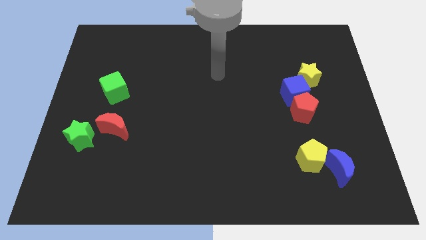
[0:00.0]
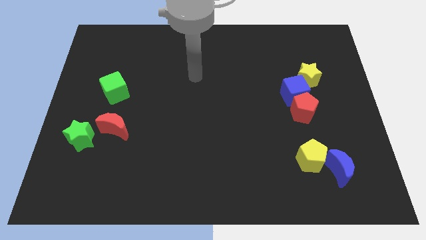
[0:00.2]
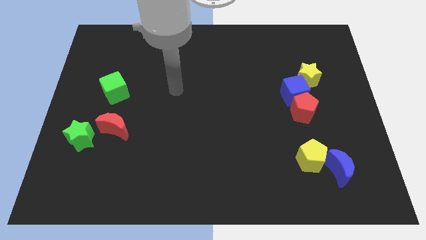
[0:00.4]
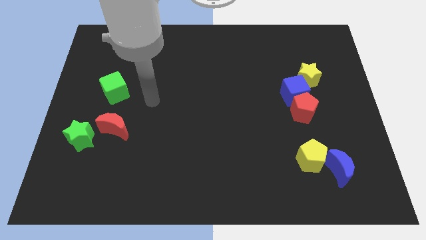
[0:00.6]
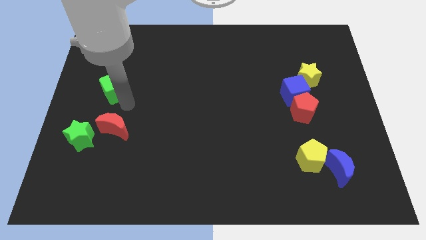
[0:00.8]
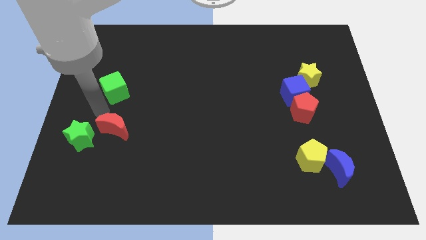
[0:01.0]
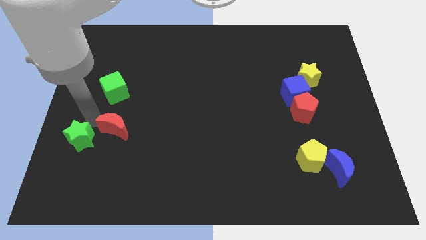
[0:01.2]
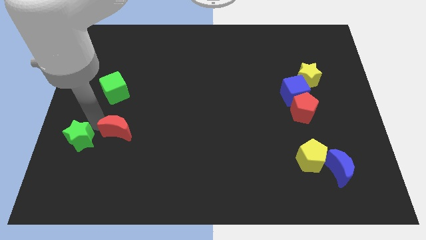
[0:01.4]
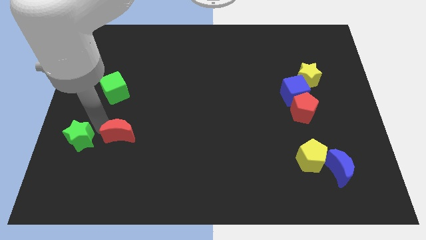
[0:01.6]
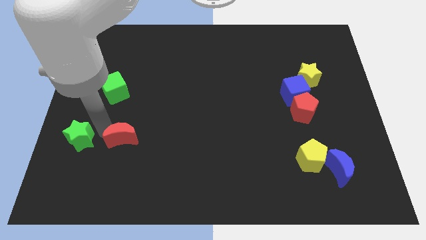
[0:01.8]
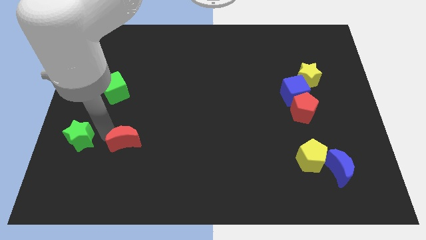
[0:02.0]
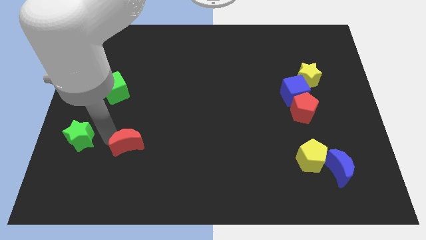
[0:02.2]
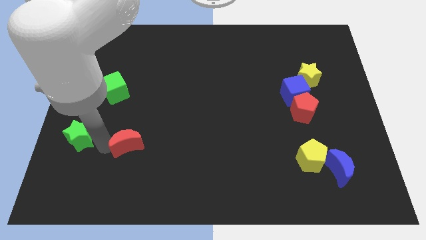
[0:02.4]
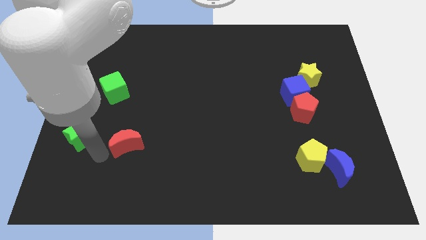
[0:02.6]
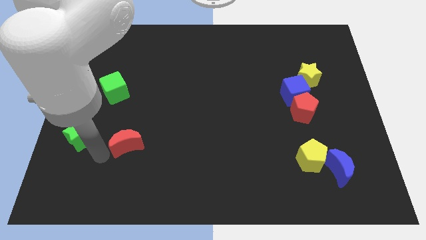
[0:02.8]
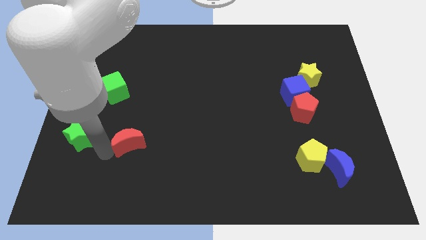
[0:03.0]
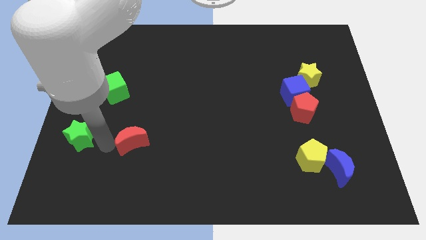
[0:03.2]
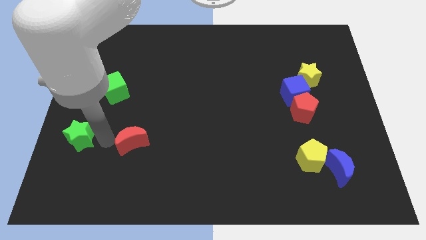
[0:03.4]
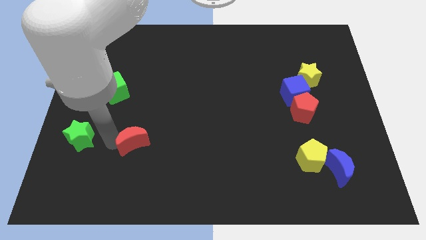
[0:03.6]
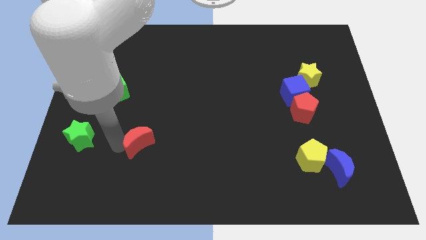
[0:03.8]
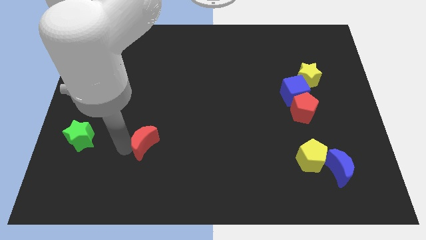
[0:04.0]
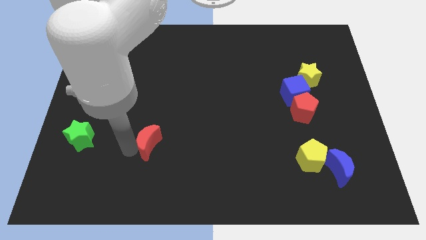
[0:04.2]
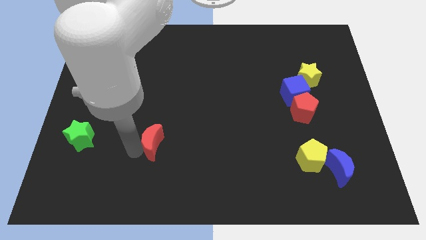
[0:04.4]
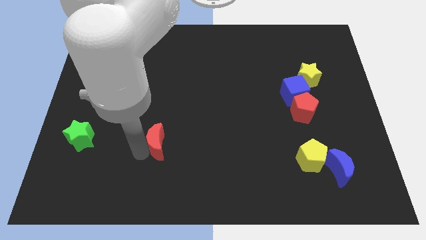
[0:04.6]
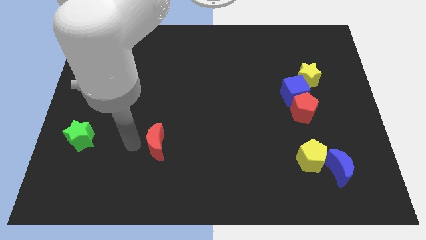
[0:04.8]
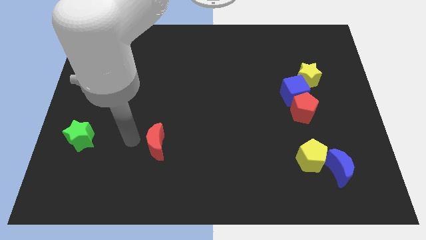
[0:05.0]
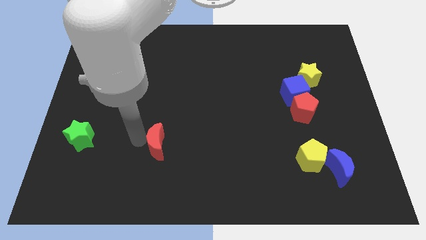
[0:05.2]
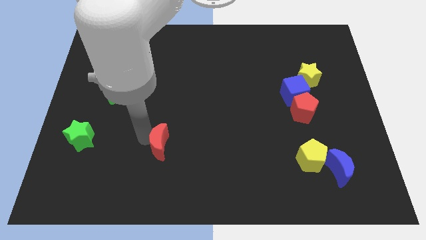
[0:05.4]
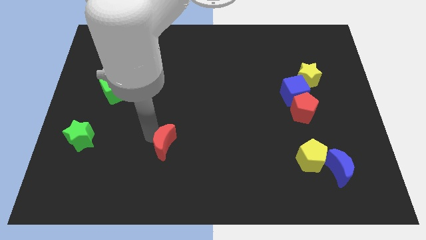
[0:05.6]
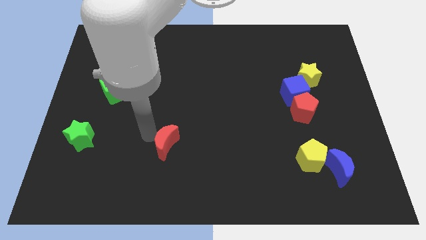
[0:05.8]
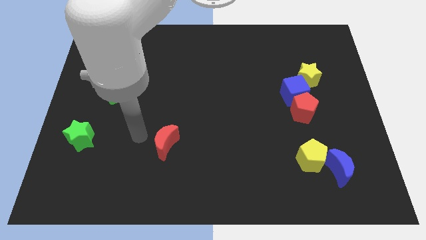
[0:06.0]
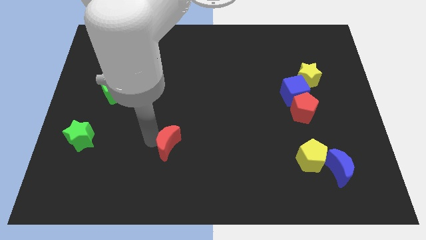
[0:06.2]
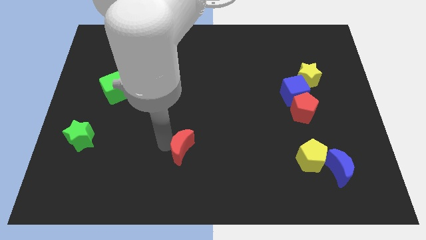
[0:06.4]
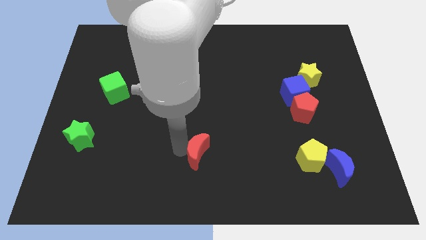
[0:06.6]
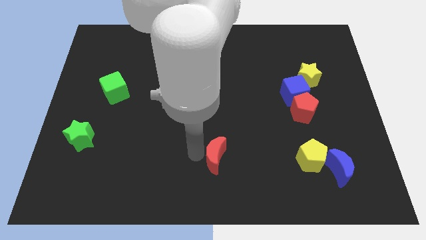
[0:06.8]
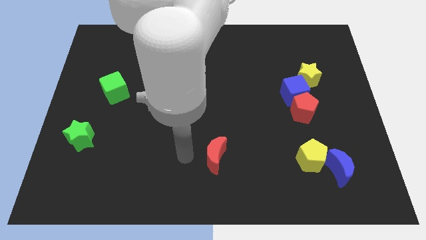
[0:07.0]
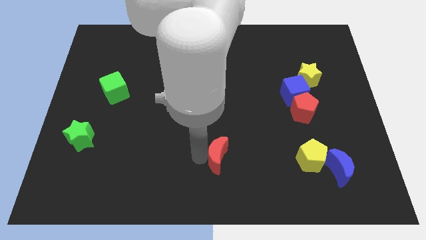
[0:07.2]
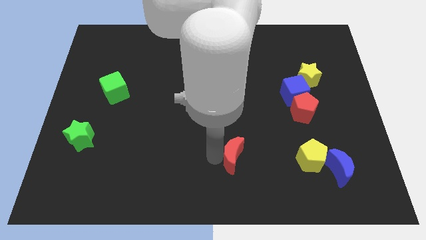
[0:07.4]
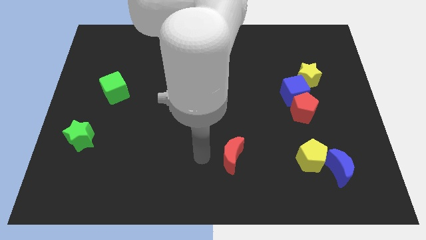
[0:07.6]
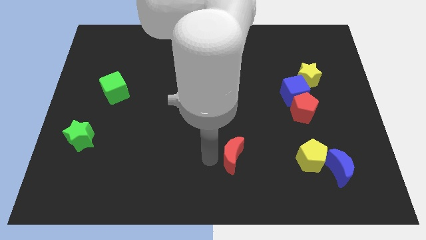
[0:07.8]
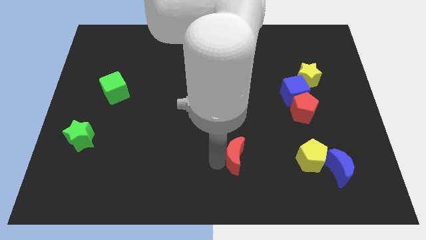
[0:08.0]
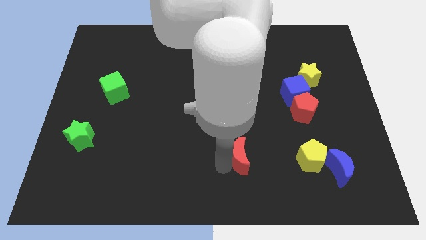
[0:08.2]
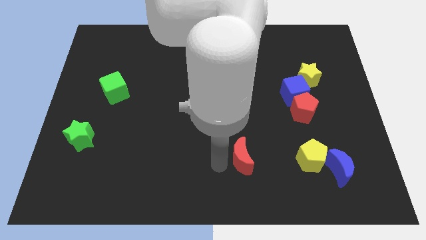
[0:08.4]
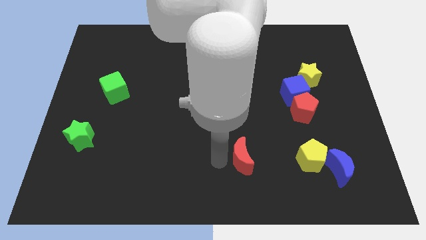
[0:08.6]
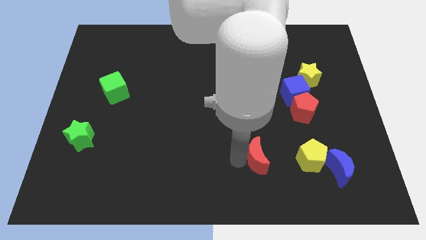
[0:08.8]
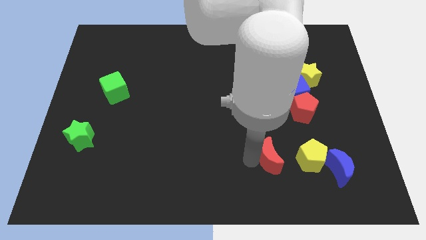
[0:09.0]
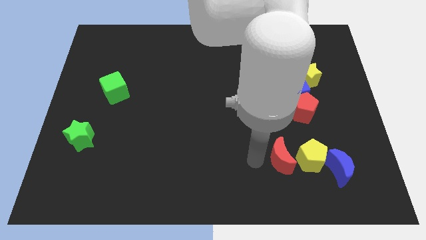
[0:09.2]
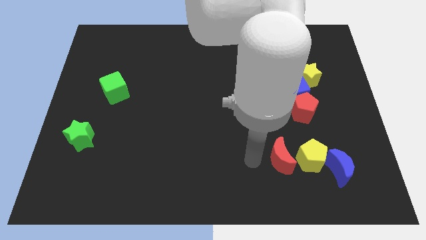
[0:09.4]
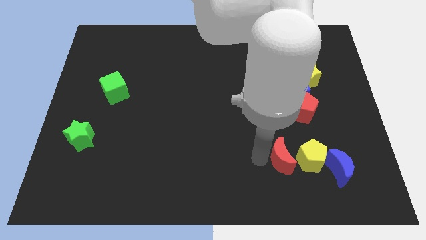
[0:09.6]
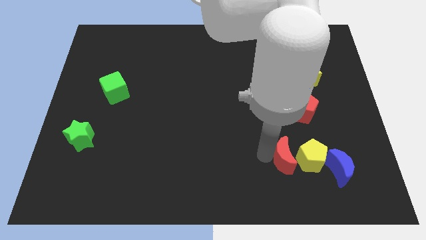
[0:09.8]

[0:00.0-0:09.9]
move the red moon close to the yellow pentagon

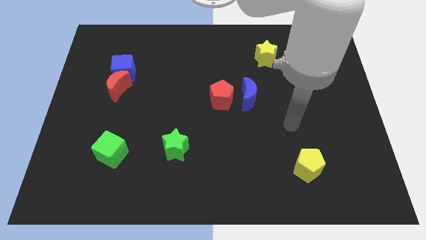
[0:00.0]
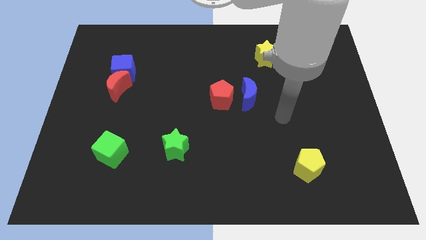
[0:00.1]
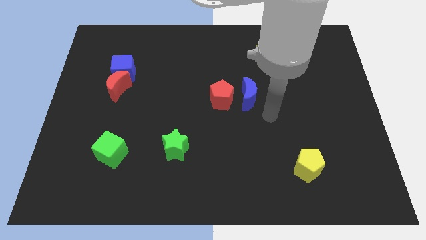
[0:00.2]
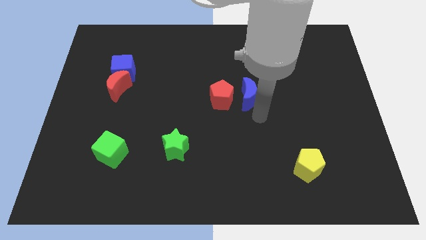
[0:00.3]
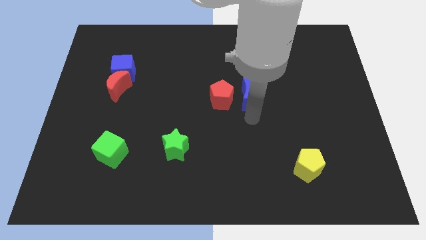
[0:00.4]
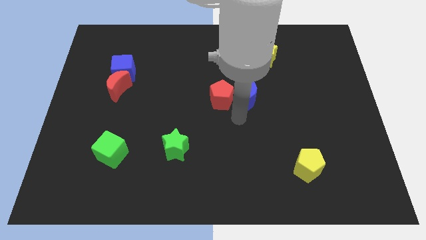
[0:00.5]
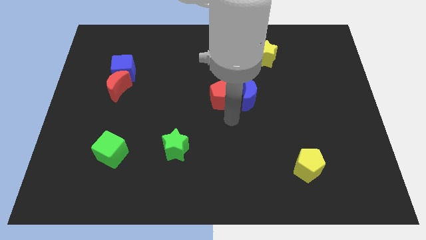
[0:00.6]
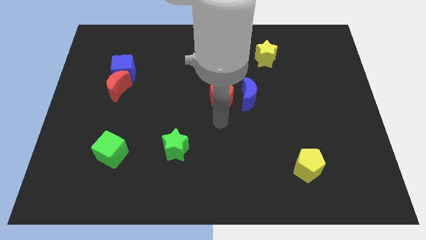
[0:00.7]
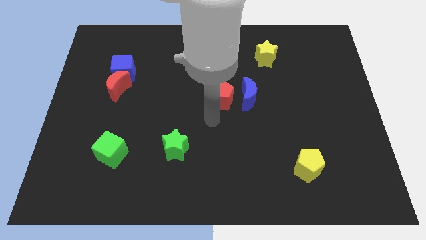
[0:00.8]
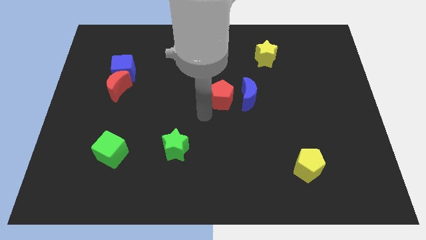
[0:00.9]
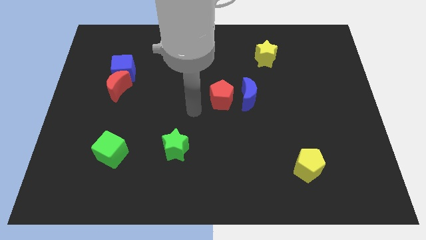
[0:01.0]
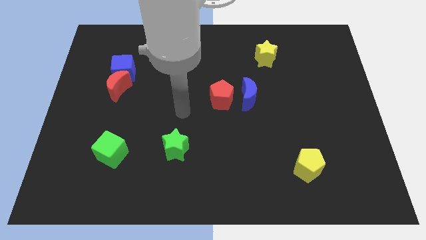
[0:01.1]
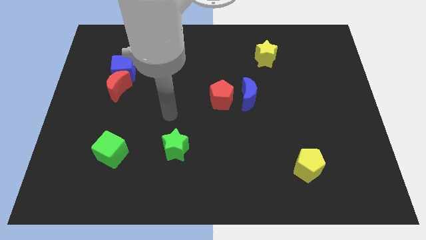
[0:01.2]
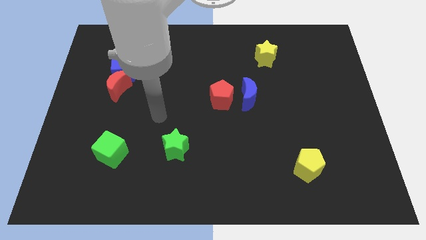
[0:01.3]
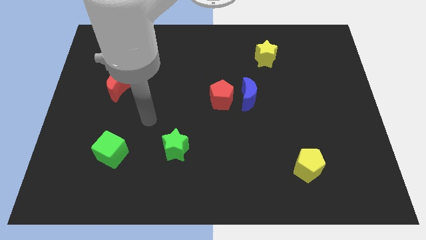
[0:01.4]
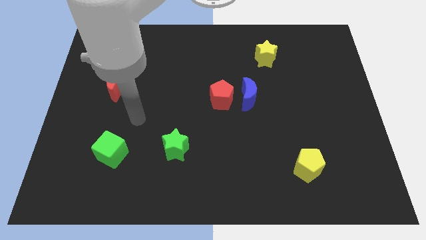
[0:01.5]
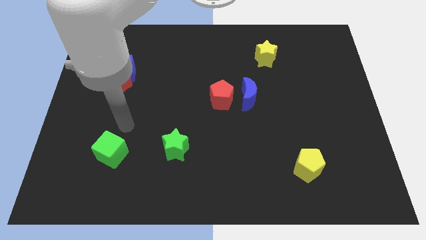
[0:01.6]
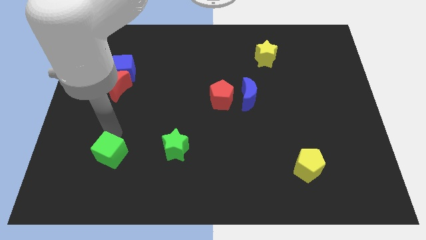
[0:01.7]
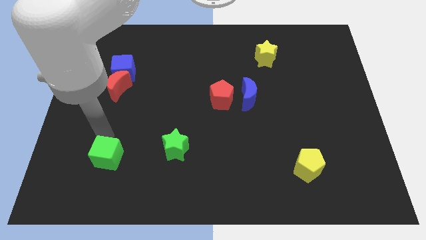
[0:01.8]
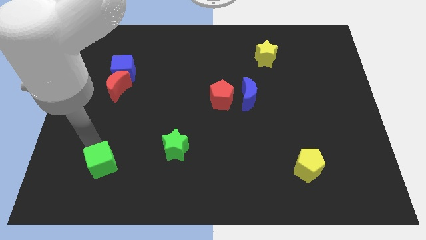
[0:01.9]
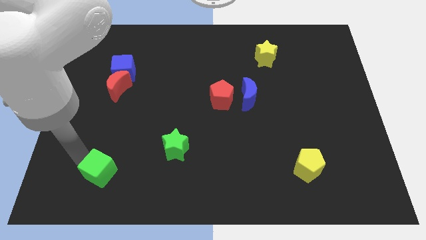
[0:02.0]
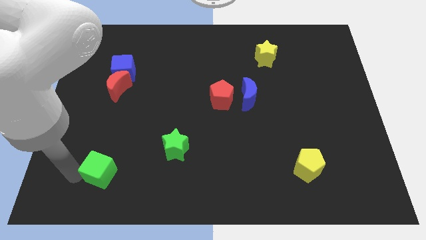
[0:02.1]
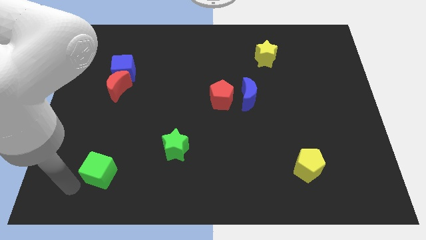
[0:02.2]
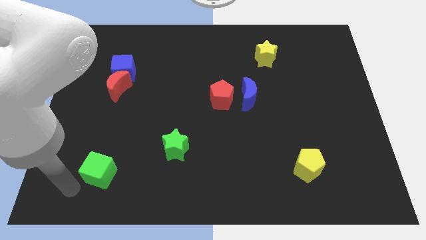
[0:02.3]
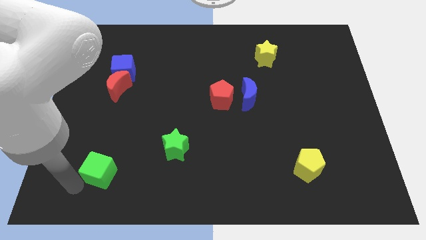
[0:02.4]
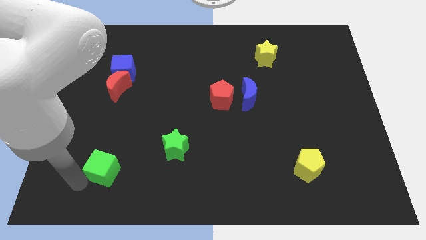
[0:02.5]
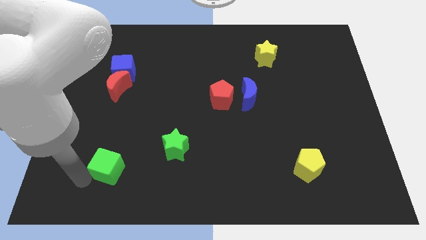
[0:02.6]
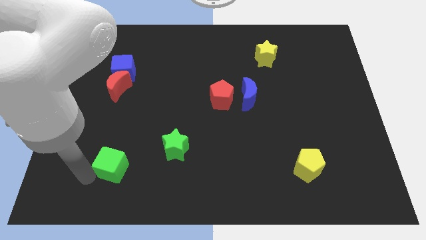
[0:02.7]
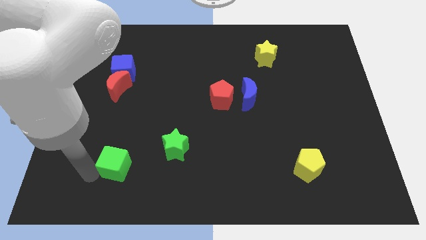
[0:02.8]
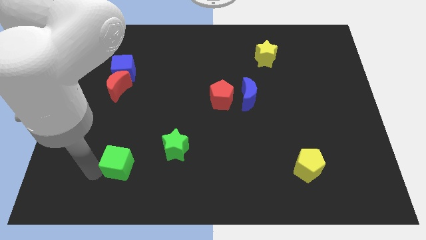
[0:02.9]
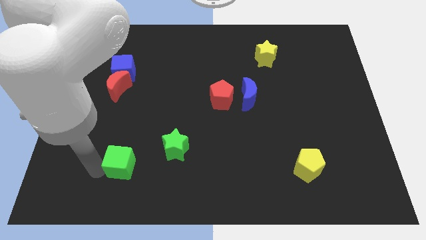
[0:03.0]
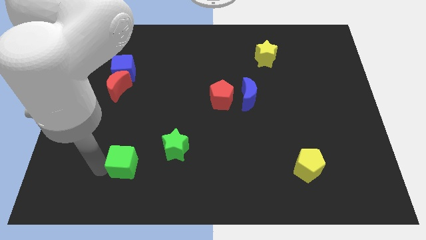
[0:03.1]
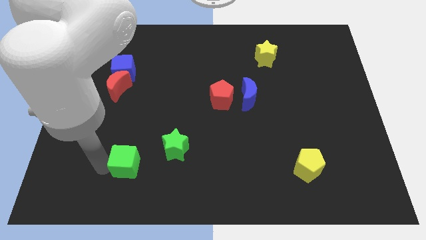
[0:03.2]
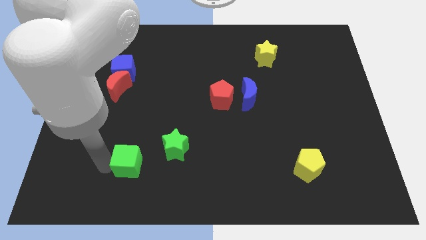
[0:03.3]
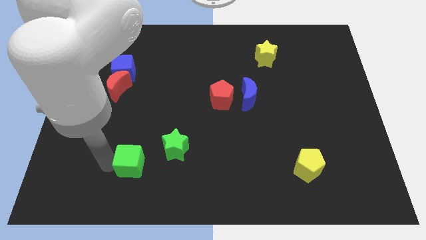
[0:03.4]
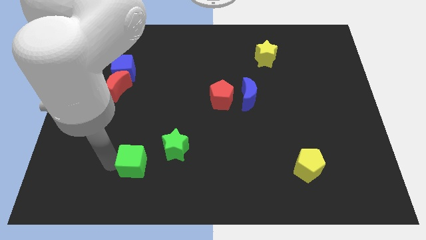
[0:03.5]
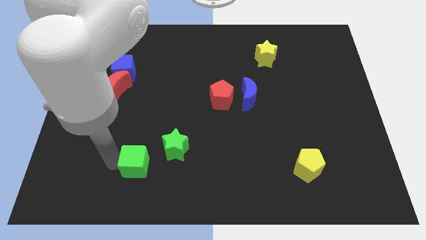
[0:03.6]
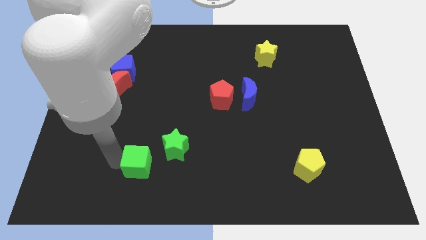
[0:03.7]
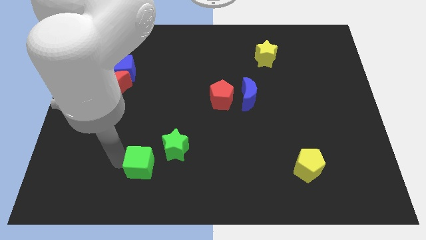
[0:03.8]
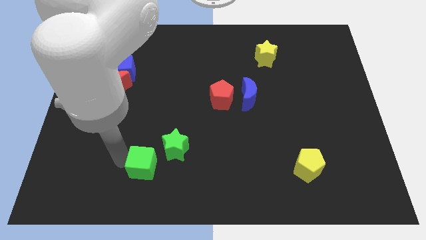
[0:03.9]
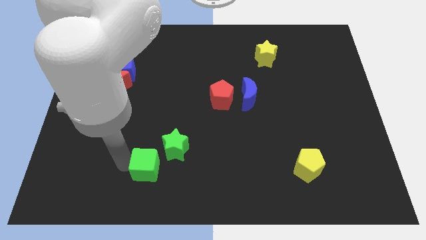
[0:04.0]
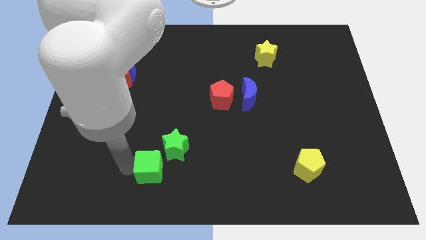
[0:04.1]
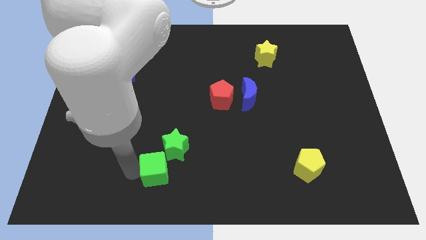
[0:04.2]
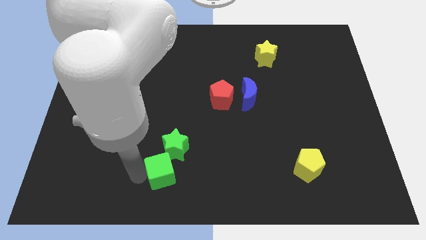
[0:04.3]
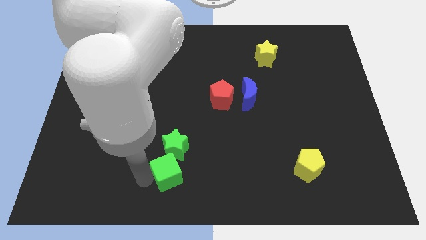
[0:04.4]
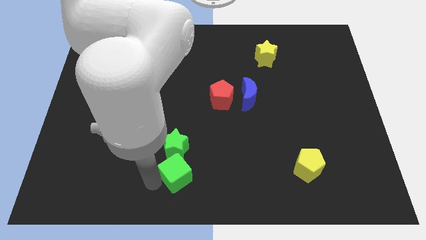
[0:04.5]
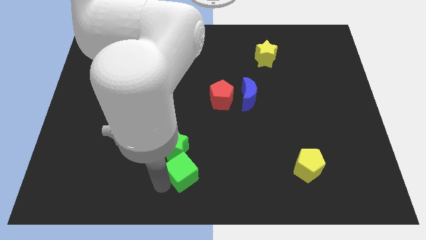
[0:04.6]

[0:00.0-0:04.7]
push the green cube towards the green star
